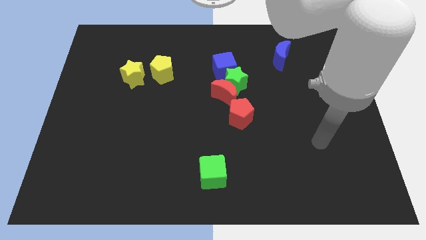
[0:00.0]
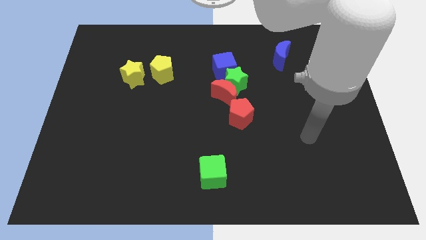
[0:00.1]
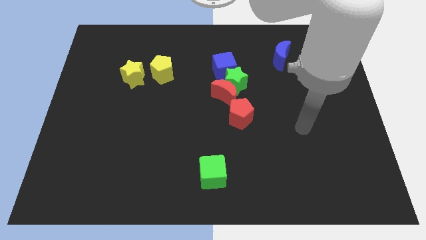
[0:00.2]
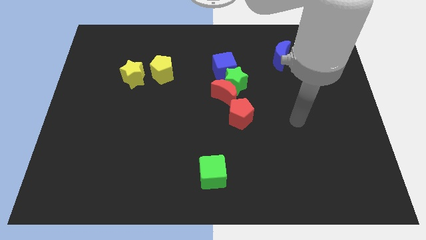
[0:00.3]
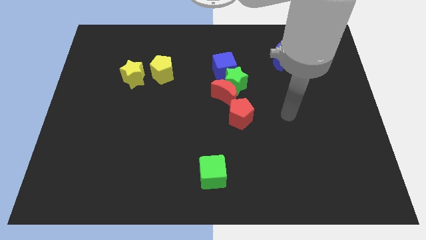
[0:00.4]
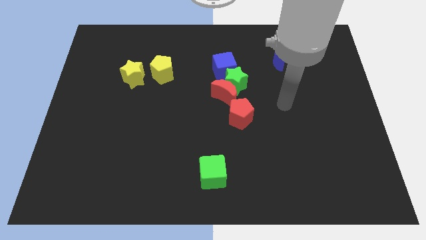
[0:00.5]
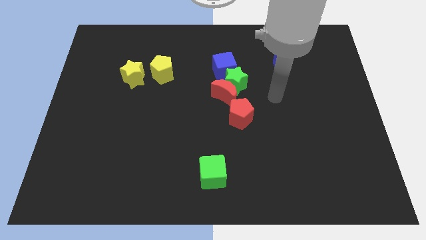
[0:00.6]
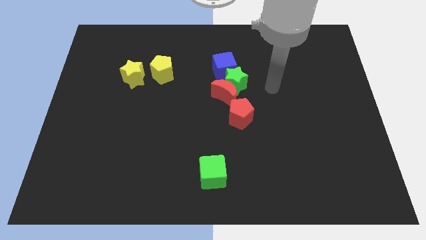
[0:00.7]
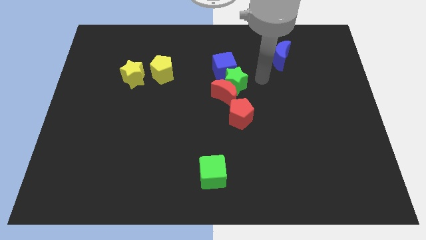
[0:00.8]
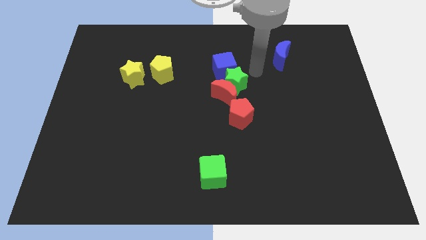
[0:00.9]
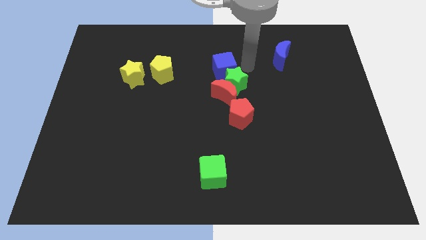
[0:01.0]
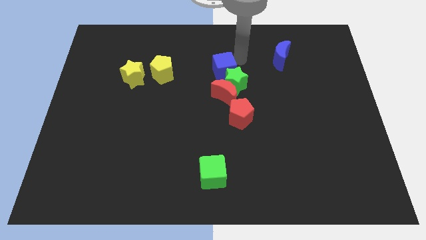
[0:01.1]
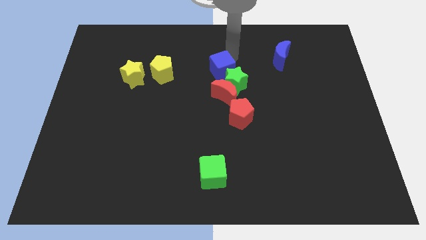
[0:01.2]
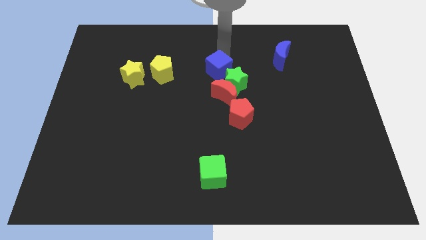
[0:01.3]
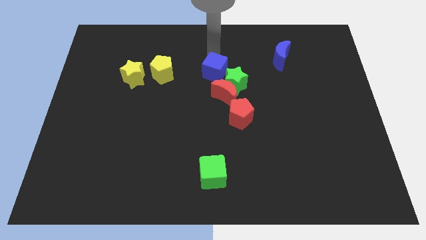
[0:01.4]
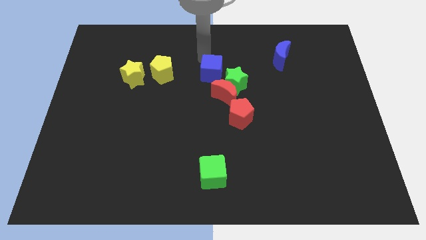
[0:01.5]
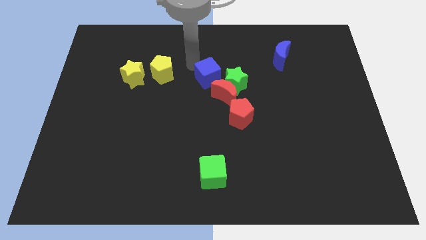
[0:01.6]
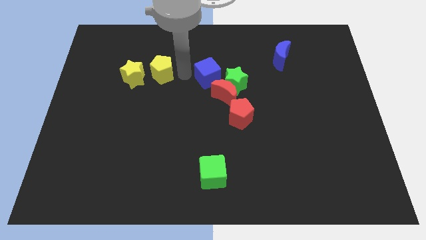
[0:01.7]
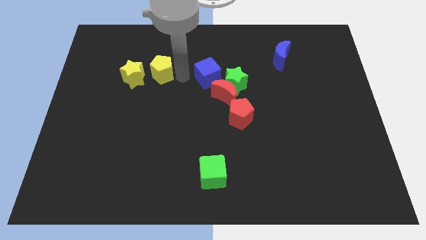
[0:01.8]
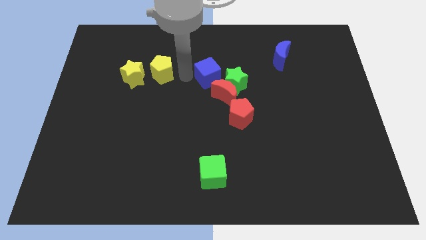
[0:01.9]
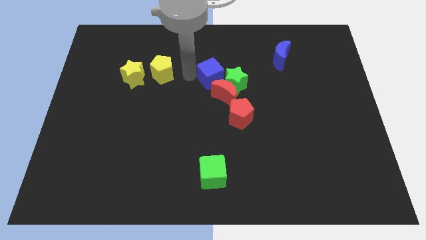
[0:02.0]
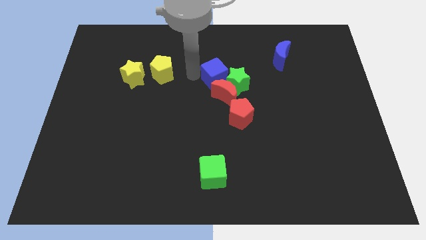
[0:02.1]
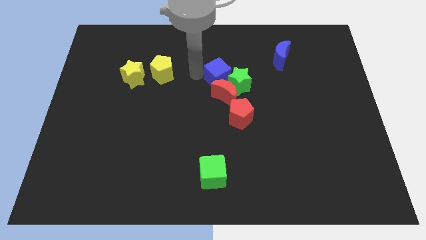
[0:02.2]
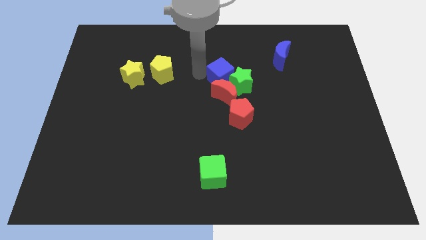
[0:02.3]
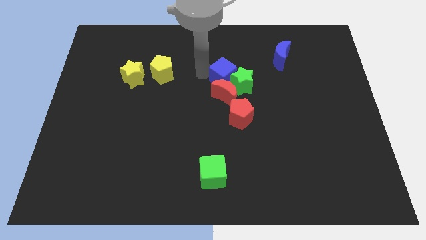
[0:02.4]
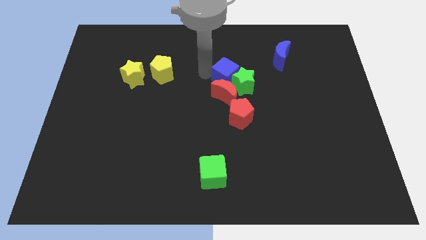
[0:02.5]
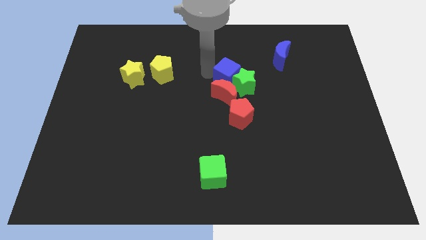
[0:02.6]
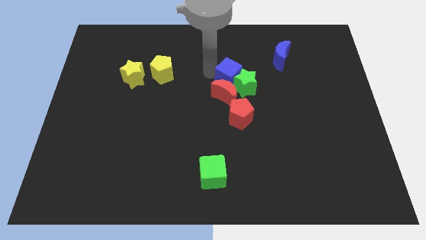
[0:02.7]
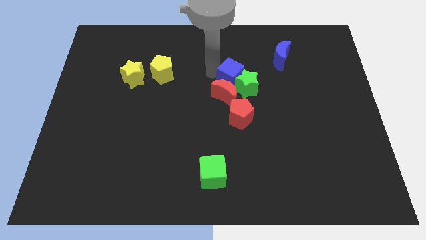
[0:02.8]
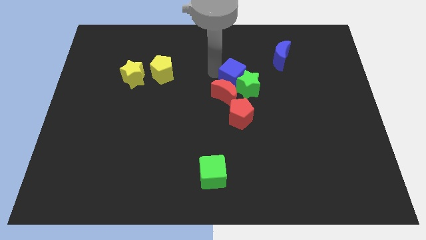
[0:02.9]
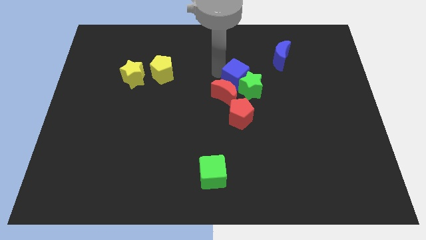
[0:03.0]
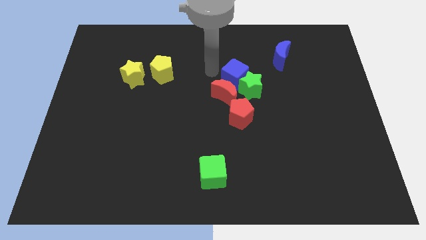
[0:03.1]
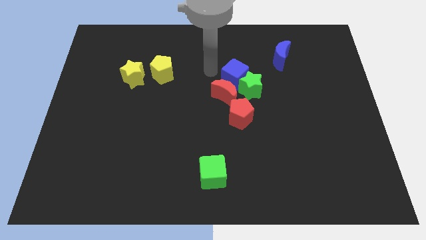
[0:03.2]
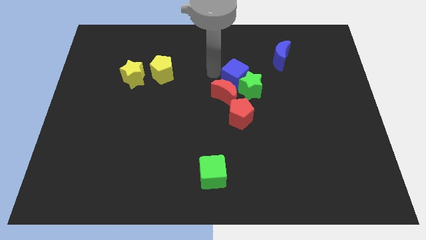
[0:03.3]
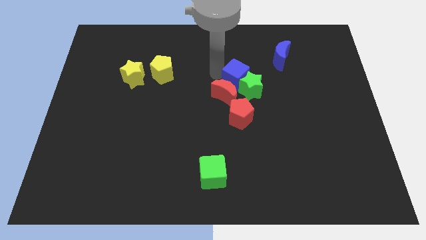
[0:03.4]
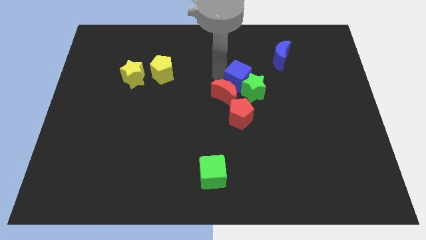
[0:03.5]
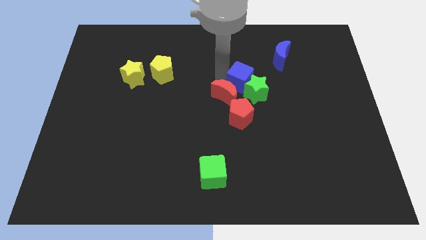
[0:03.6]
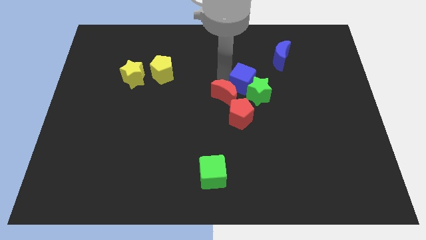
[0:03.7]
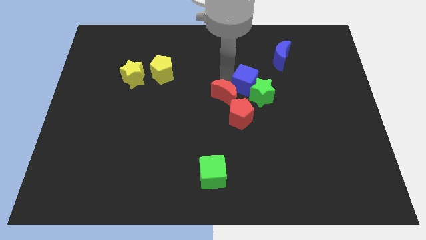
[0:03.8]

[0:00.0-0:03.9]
slightly slide the blue cube downwards and then to the right

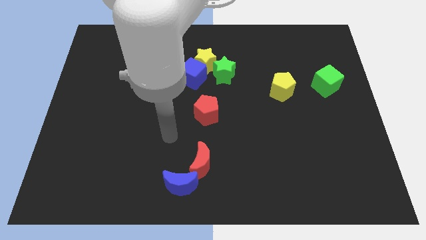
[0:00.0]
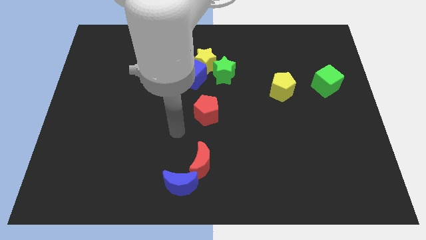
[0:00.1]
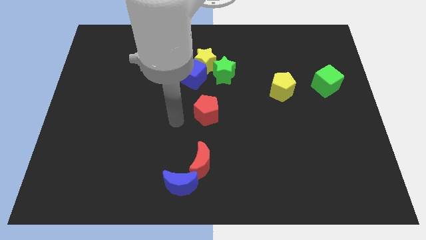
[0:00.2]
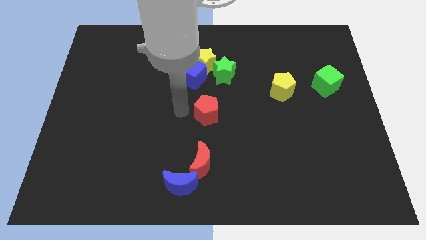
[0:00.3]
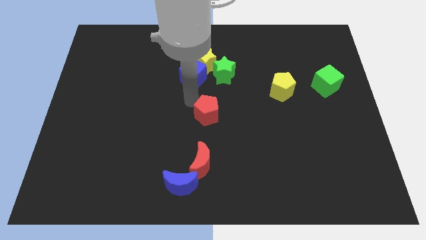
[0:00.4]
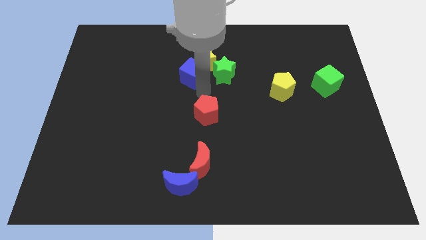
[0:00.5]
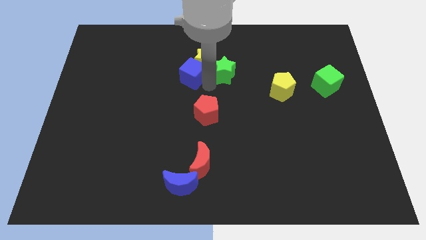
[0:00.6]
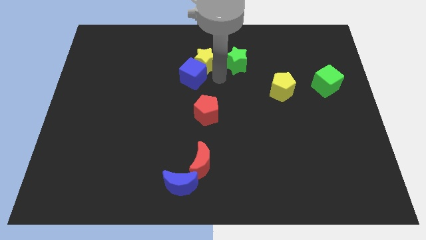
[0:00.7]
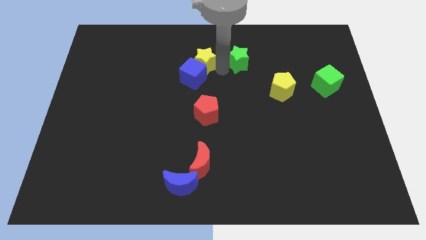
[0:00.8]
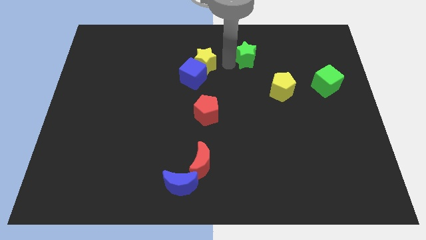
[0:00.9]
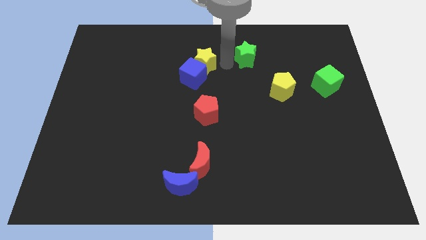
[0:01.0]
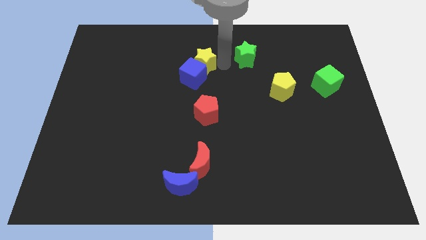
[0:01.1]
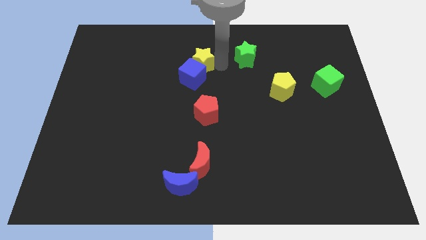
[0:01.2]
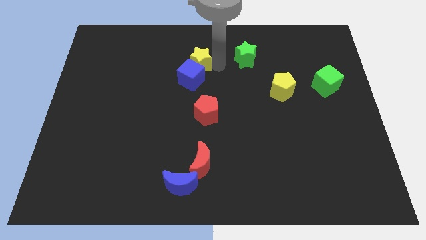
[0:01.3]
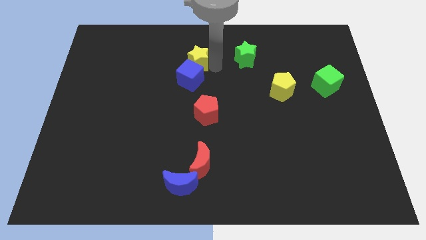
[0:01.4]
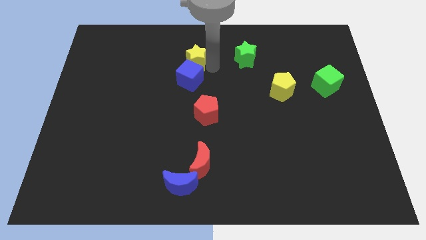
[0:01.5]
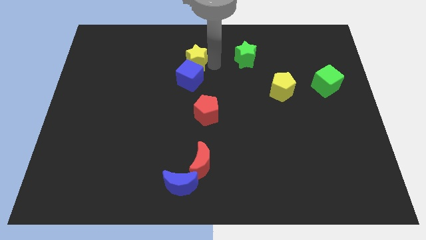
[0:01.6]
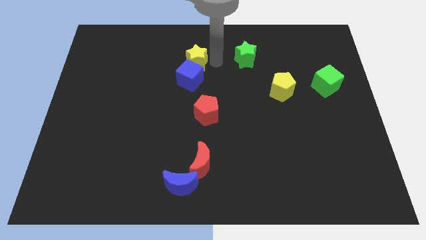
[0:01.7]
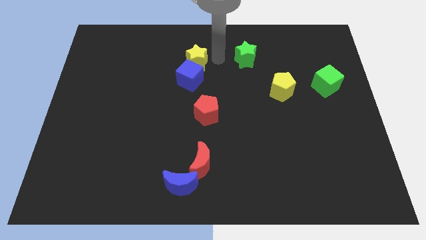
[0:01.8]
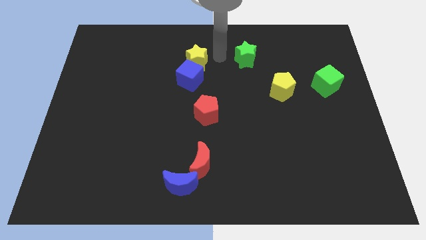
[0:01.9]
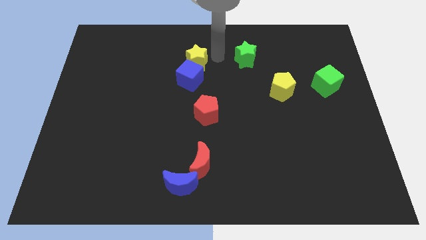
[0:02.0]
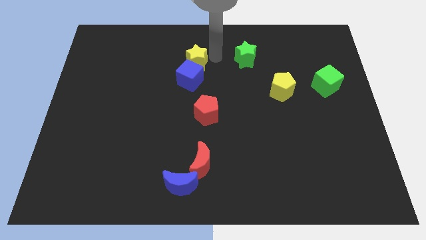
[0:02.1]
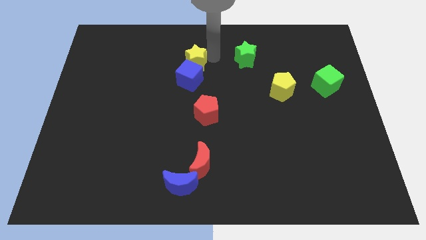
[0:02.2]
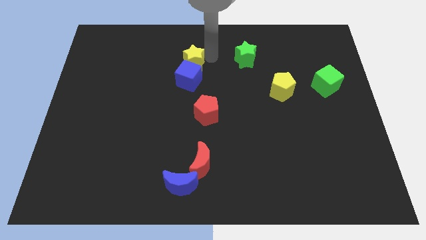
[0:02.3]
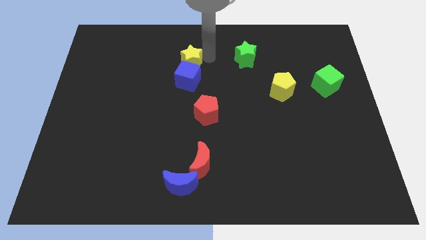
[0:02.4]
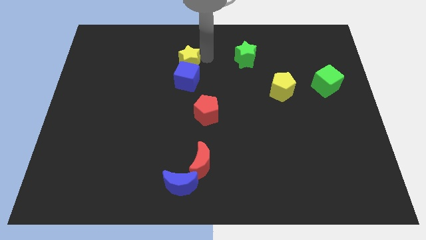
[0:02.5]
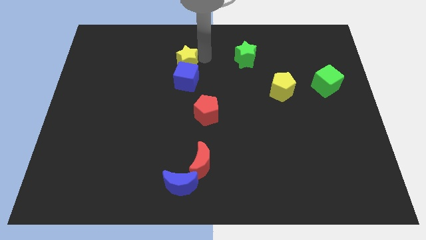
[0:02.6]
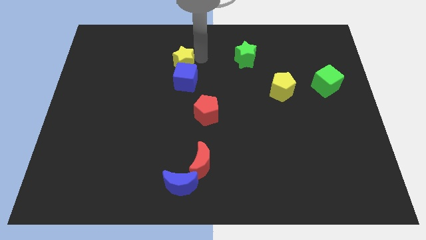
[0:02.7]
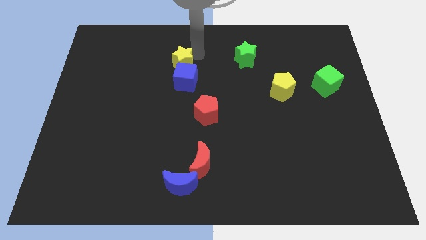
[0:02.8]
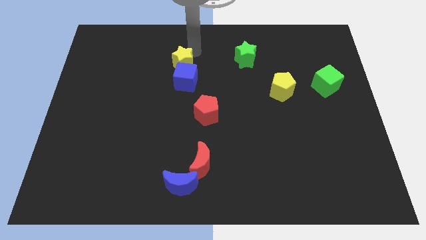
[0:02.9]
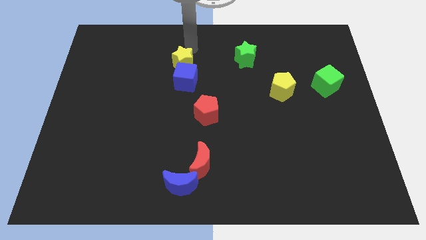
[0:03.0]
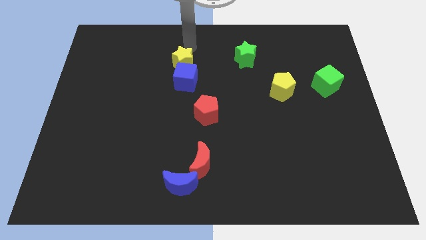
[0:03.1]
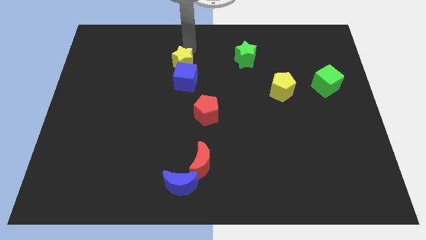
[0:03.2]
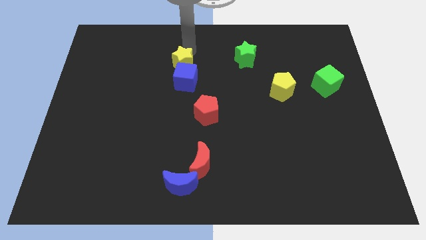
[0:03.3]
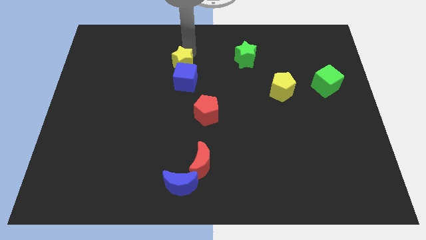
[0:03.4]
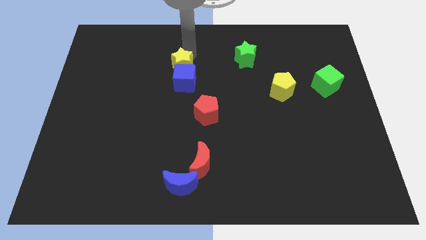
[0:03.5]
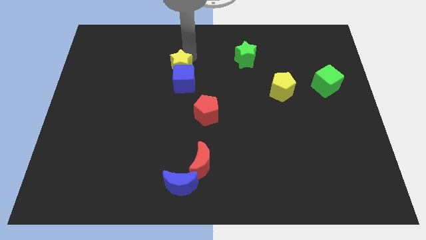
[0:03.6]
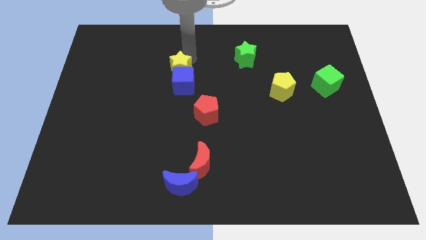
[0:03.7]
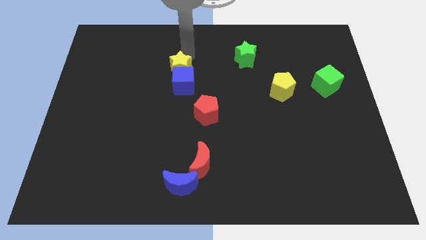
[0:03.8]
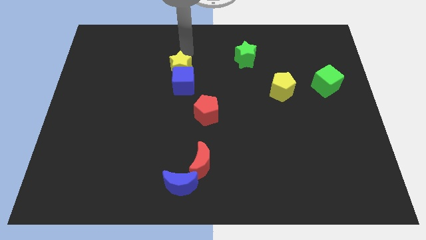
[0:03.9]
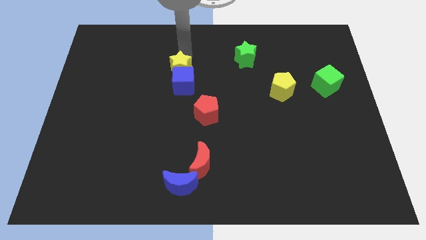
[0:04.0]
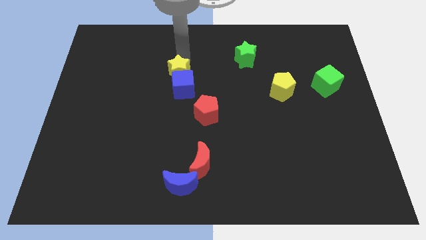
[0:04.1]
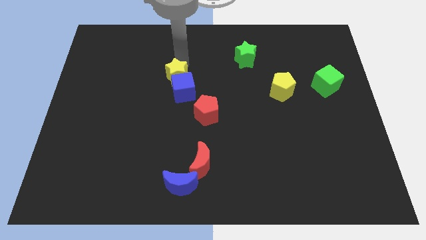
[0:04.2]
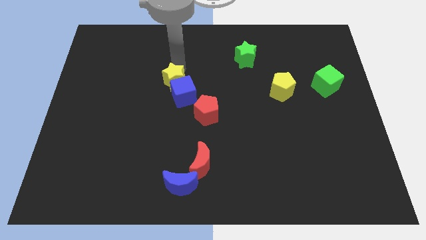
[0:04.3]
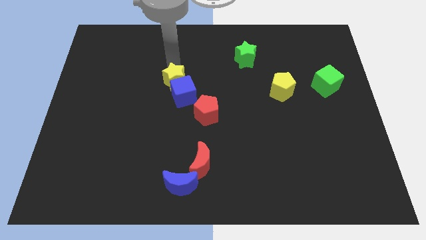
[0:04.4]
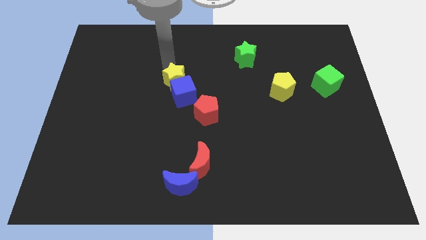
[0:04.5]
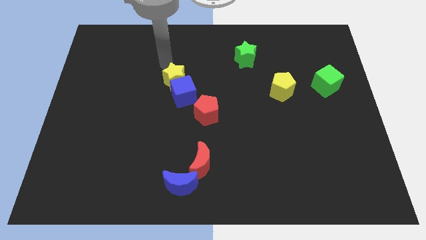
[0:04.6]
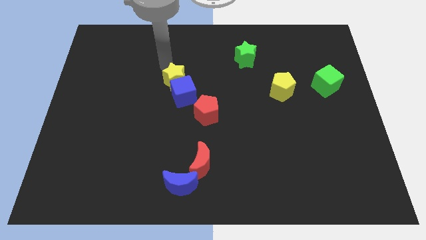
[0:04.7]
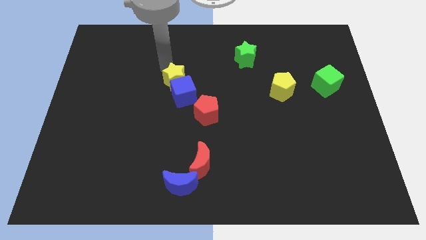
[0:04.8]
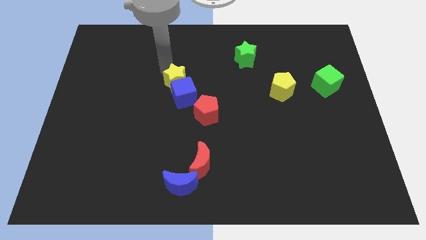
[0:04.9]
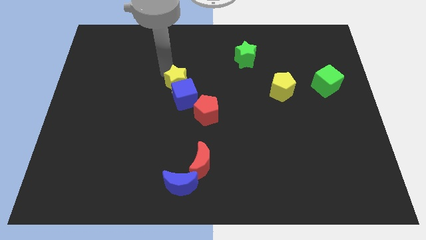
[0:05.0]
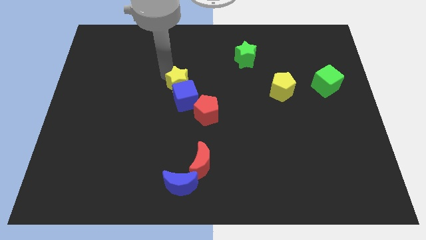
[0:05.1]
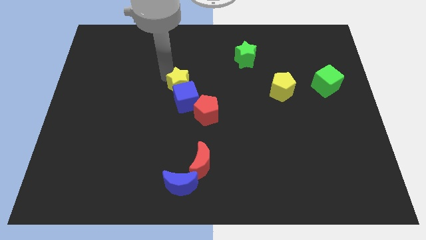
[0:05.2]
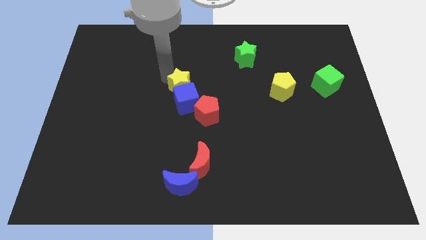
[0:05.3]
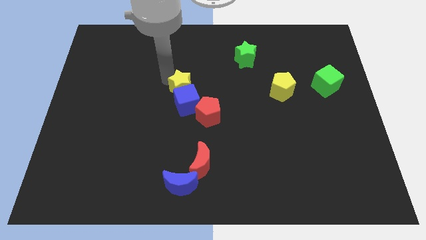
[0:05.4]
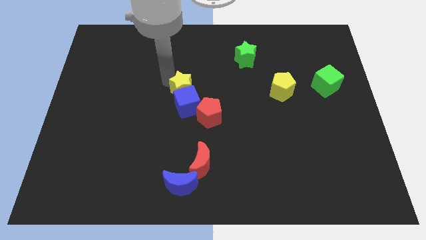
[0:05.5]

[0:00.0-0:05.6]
slightly push the yellow star downwards
